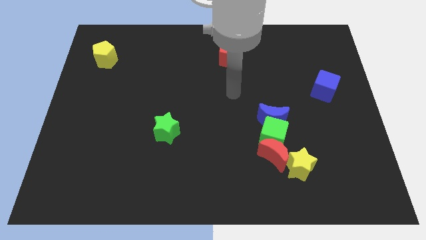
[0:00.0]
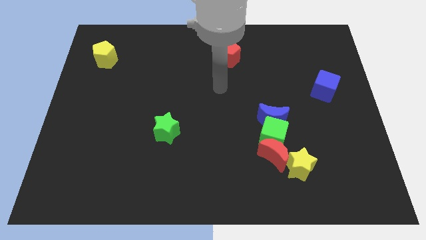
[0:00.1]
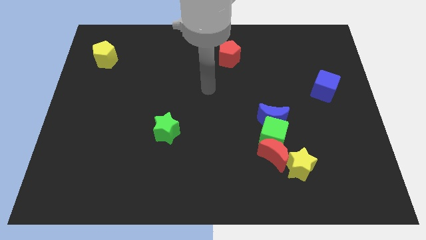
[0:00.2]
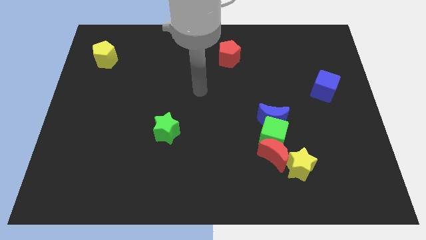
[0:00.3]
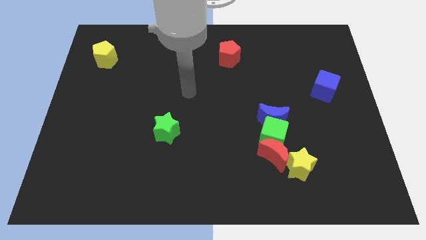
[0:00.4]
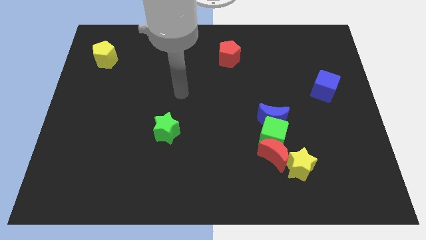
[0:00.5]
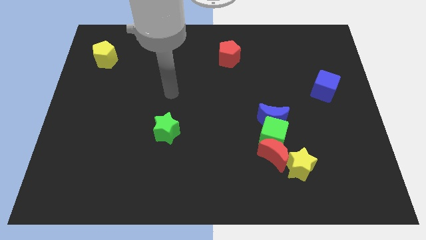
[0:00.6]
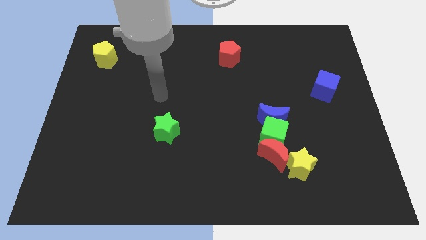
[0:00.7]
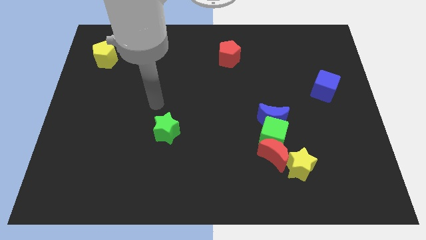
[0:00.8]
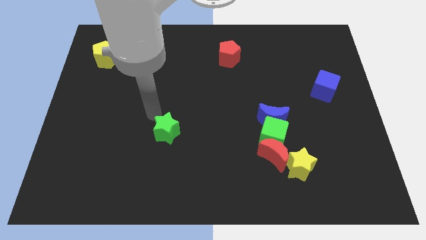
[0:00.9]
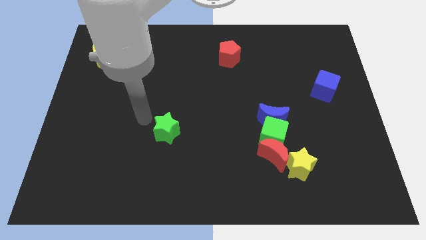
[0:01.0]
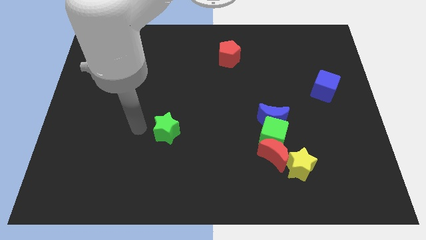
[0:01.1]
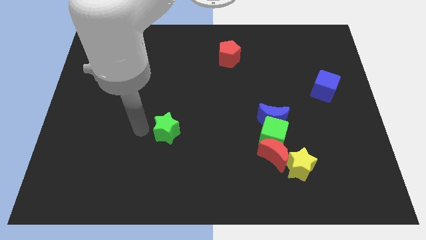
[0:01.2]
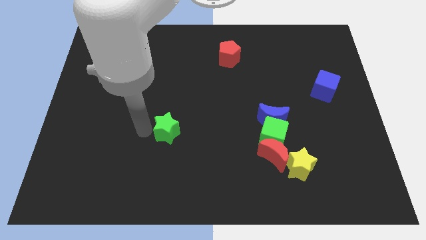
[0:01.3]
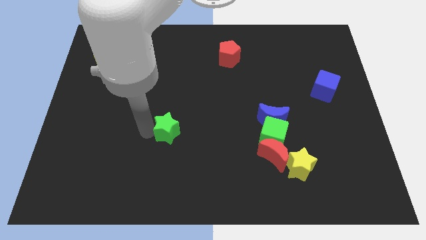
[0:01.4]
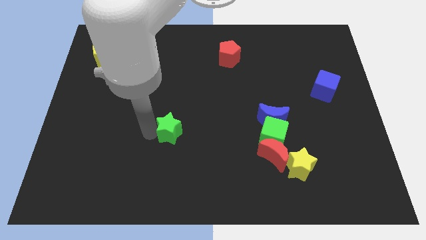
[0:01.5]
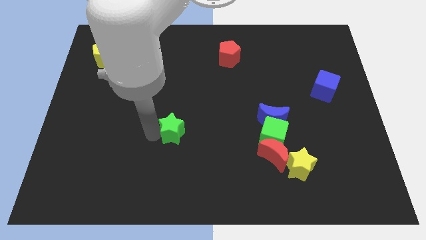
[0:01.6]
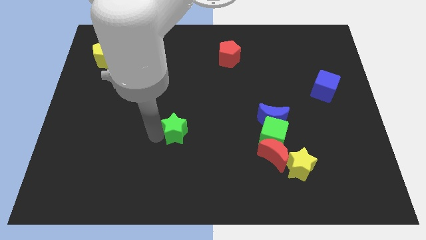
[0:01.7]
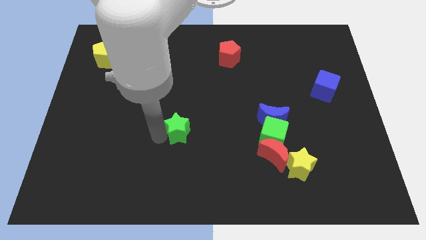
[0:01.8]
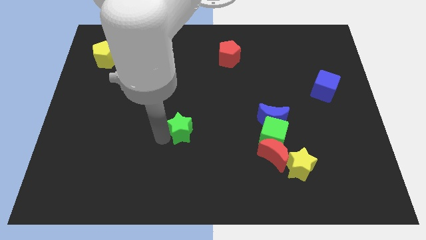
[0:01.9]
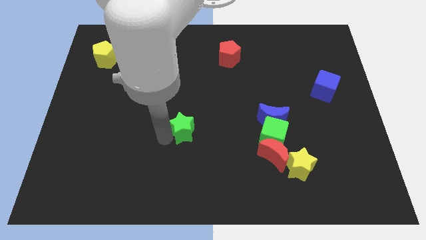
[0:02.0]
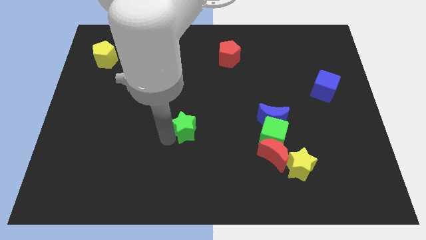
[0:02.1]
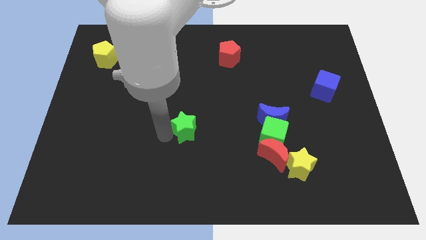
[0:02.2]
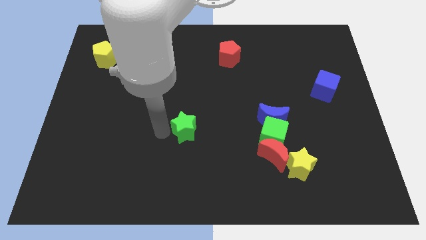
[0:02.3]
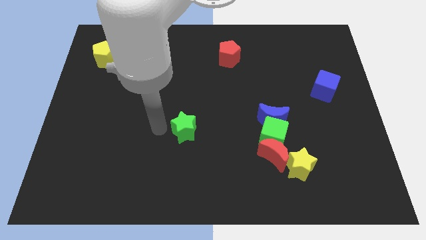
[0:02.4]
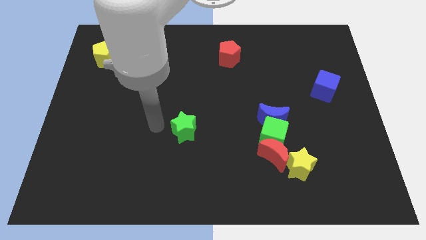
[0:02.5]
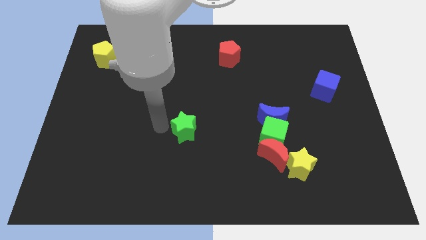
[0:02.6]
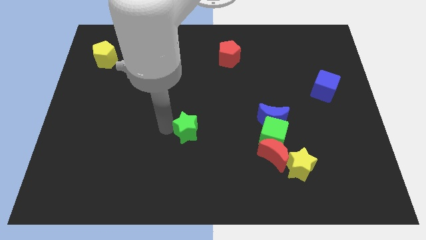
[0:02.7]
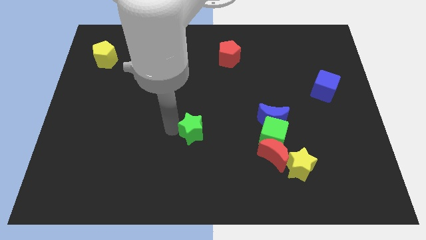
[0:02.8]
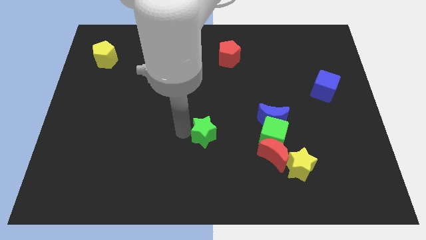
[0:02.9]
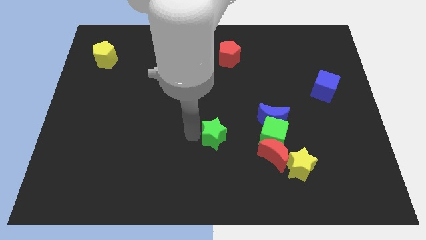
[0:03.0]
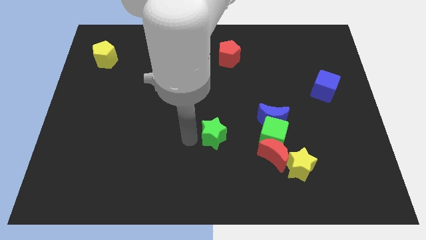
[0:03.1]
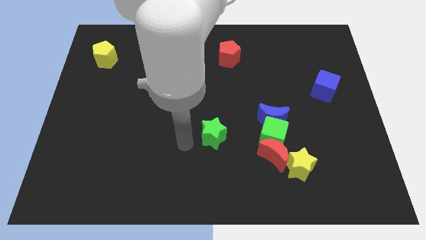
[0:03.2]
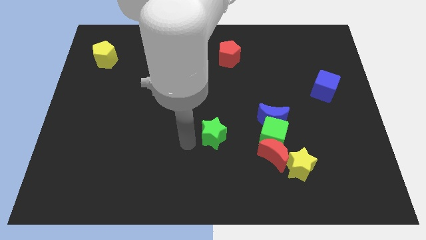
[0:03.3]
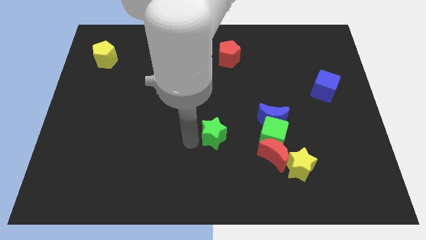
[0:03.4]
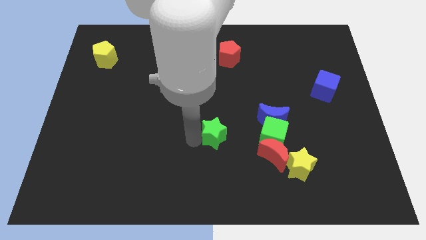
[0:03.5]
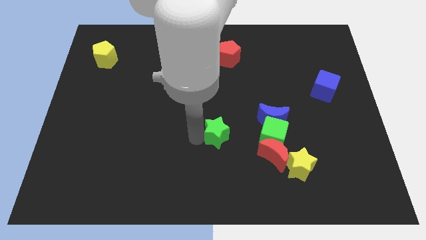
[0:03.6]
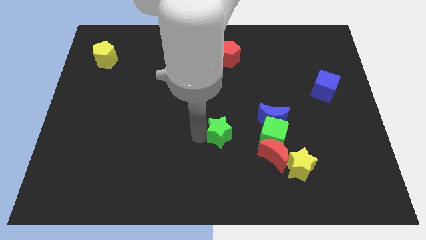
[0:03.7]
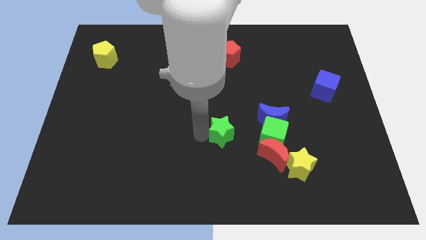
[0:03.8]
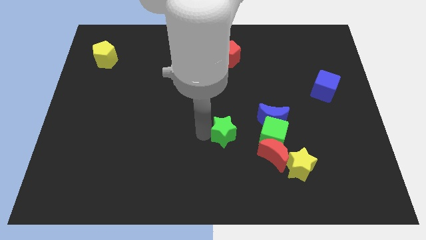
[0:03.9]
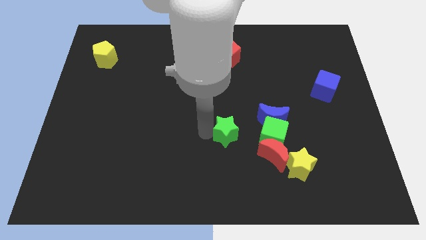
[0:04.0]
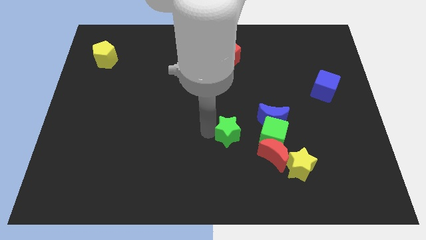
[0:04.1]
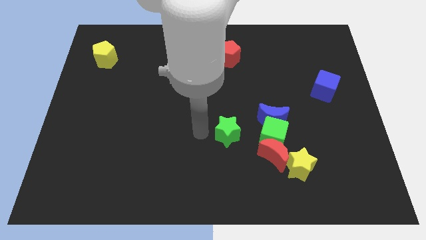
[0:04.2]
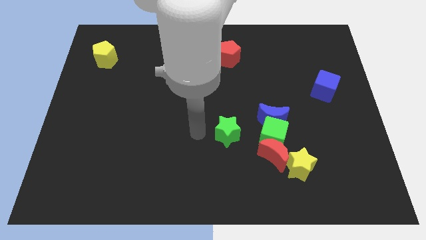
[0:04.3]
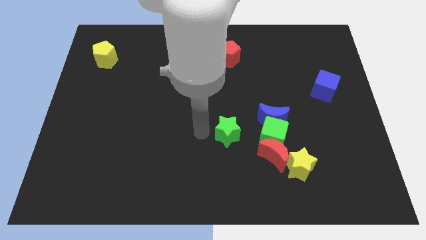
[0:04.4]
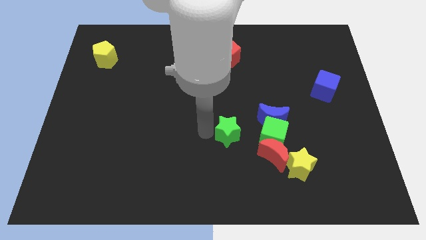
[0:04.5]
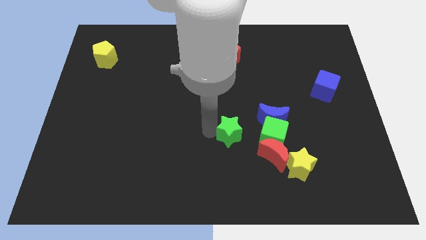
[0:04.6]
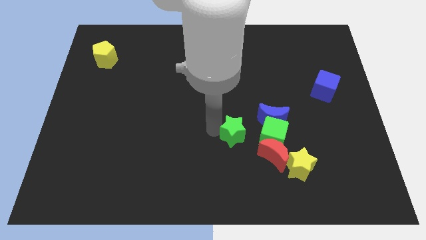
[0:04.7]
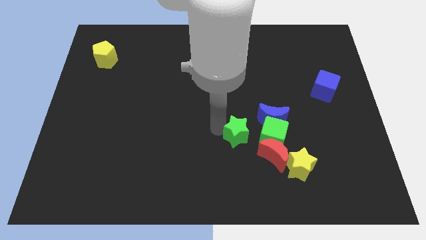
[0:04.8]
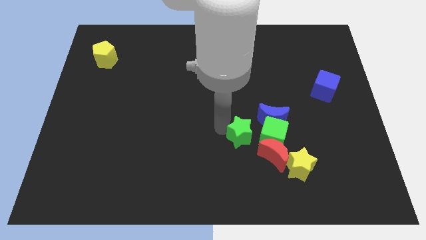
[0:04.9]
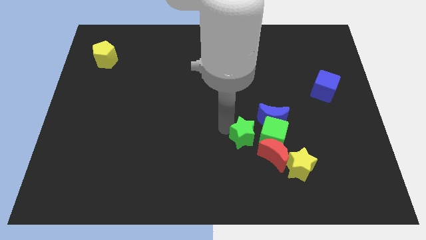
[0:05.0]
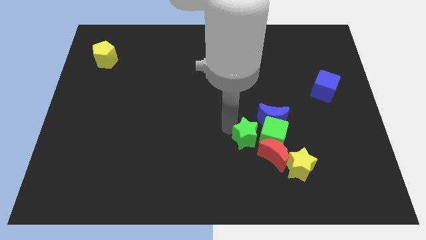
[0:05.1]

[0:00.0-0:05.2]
slide the green star next to the green cube

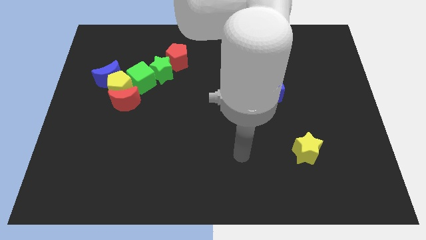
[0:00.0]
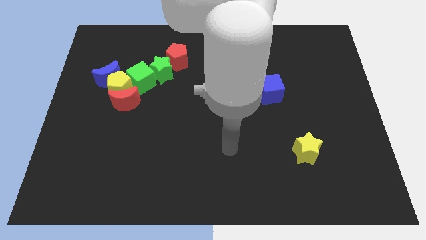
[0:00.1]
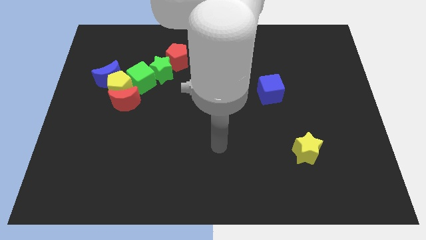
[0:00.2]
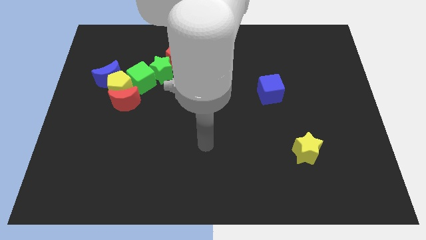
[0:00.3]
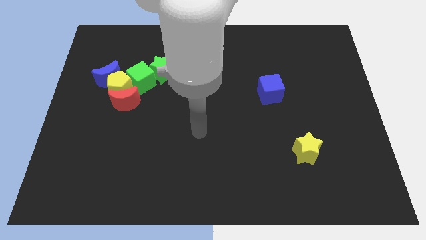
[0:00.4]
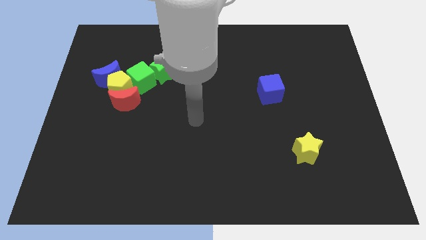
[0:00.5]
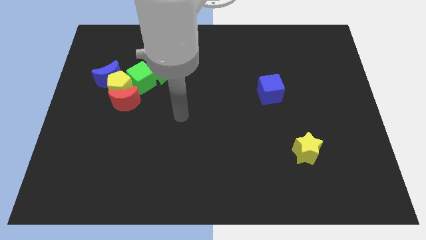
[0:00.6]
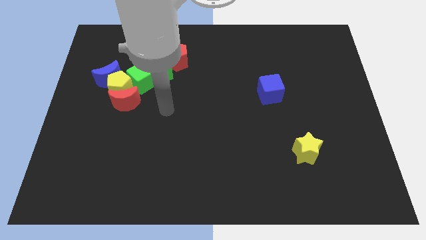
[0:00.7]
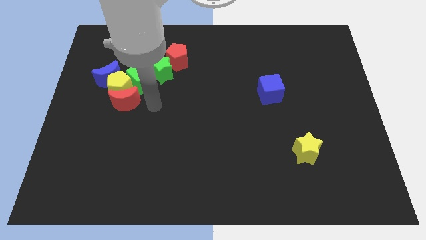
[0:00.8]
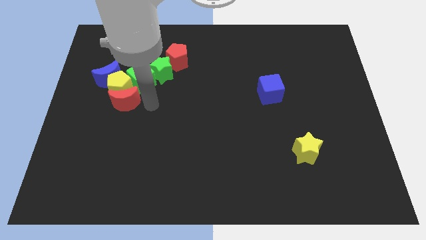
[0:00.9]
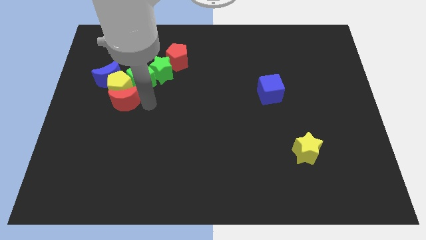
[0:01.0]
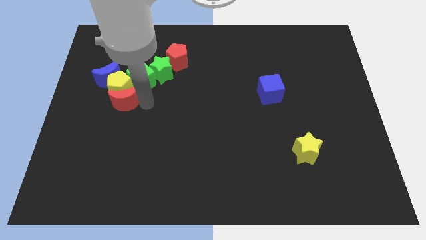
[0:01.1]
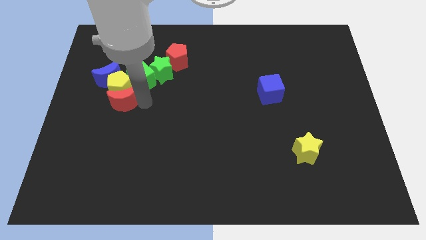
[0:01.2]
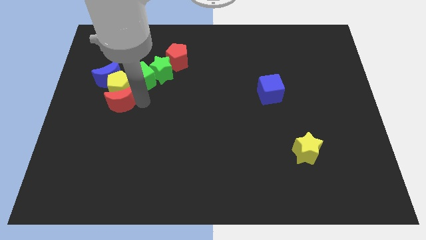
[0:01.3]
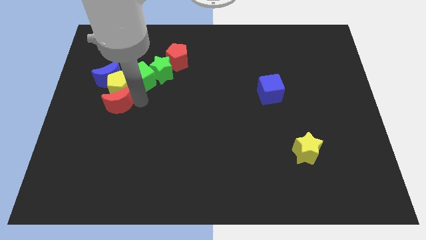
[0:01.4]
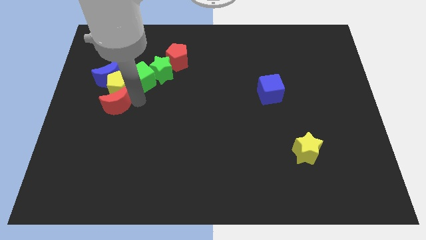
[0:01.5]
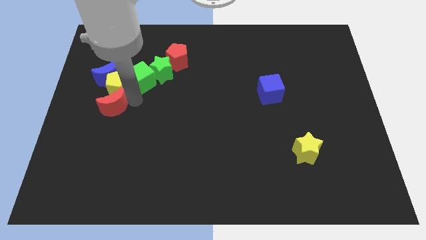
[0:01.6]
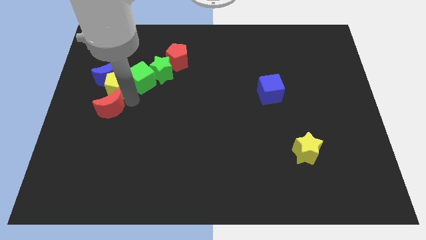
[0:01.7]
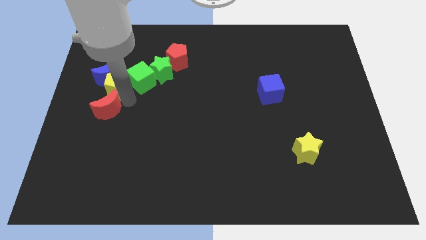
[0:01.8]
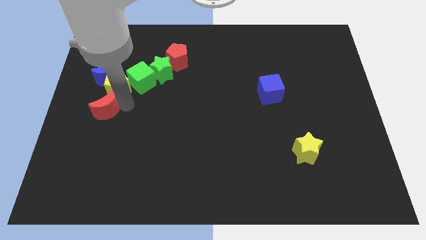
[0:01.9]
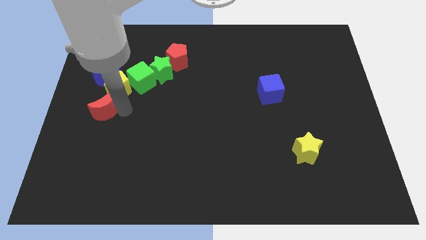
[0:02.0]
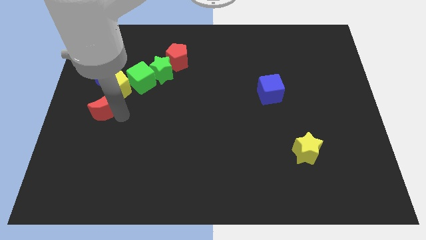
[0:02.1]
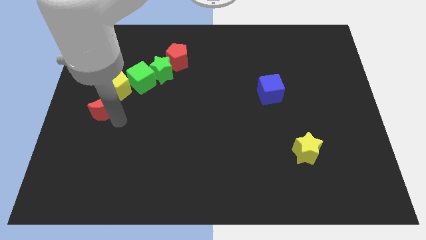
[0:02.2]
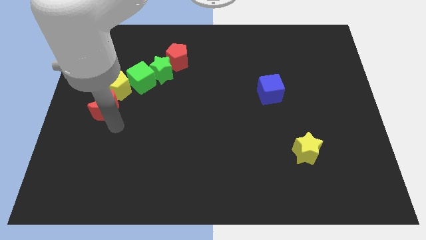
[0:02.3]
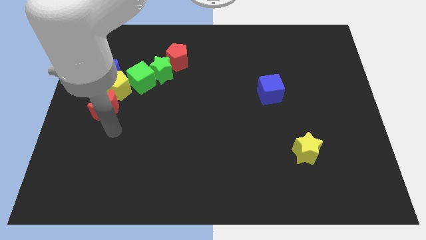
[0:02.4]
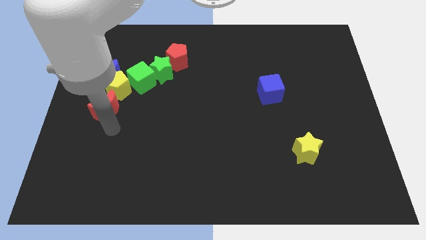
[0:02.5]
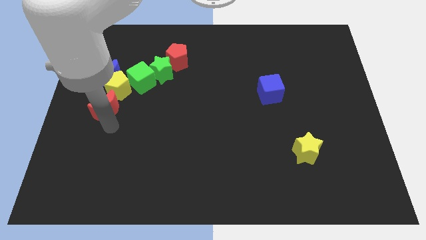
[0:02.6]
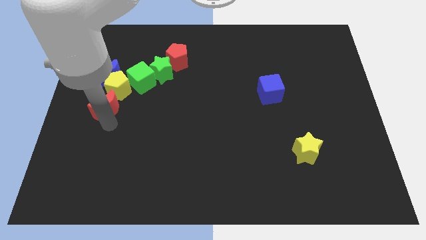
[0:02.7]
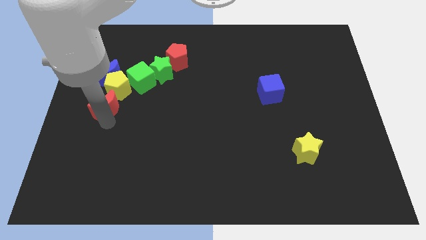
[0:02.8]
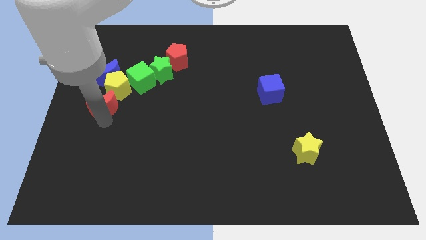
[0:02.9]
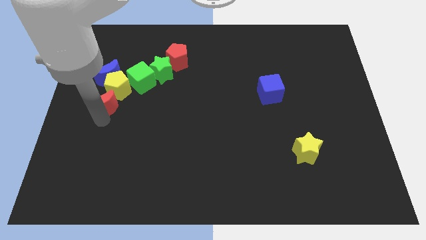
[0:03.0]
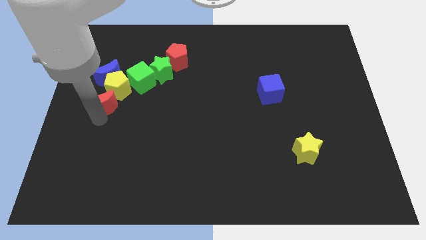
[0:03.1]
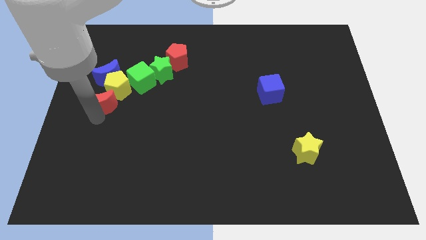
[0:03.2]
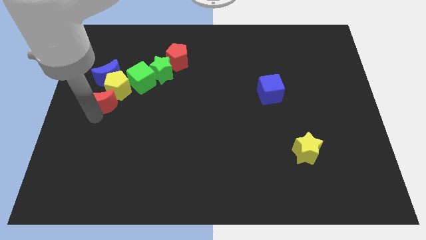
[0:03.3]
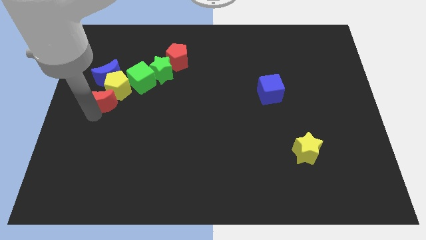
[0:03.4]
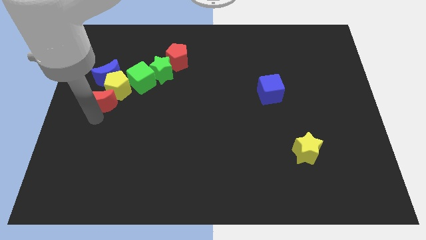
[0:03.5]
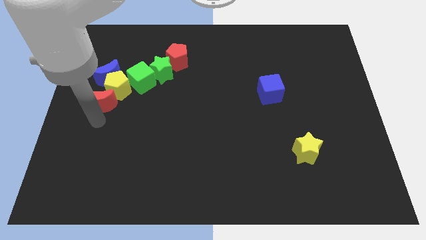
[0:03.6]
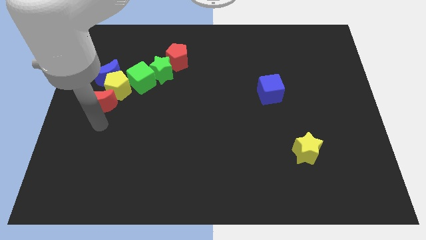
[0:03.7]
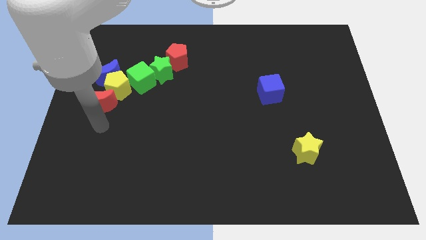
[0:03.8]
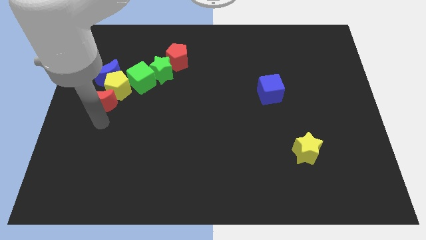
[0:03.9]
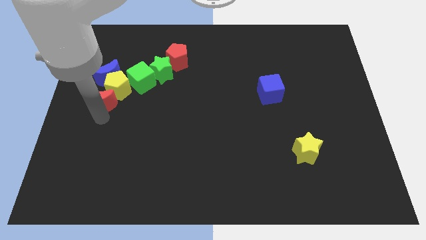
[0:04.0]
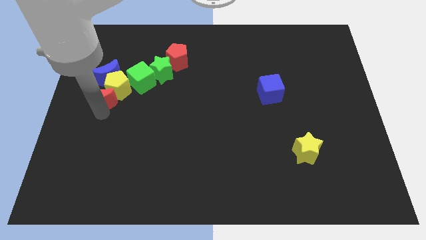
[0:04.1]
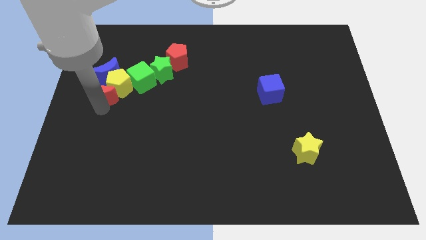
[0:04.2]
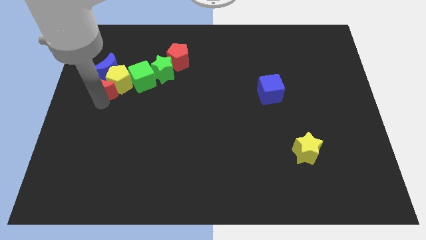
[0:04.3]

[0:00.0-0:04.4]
put the red moon towards the blue moon
